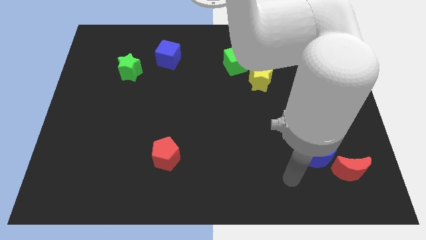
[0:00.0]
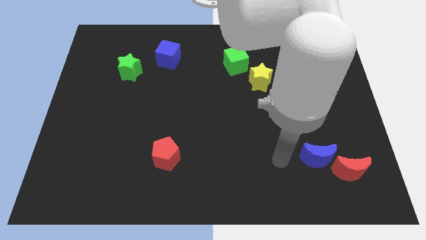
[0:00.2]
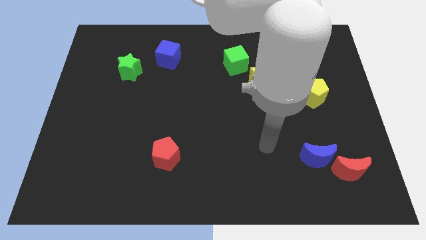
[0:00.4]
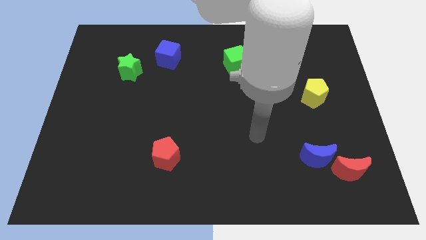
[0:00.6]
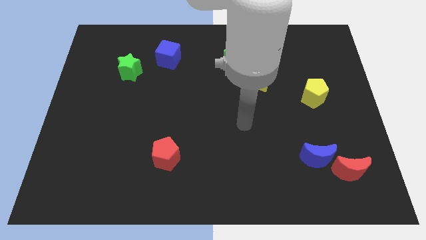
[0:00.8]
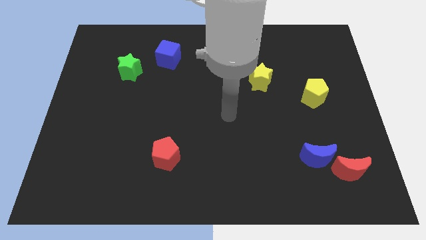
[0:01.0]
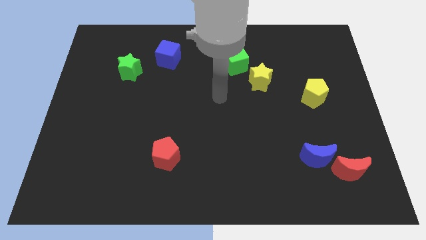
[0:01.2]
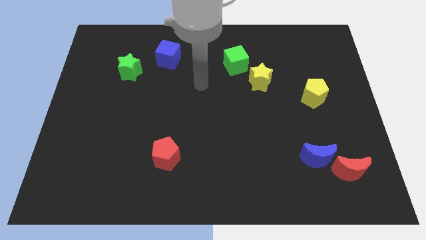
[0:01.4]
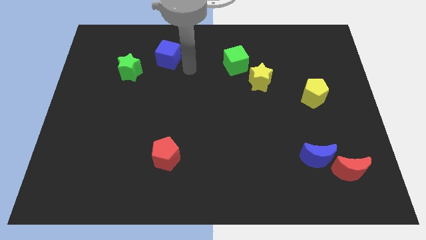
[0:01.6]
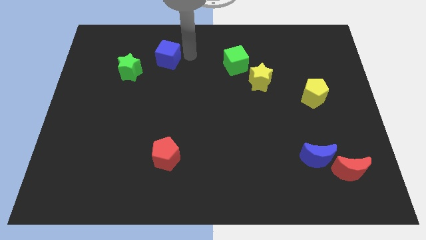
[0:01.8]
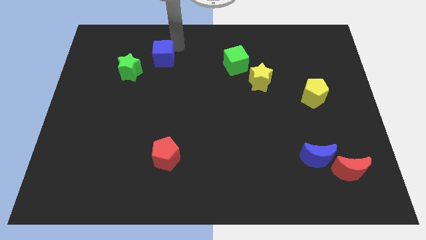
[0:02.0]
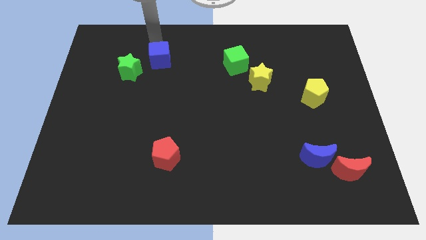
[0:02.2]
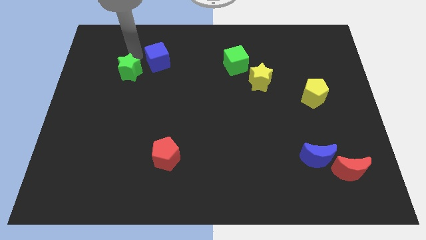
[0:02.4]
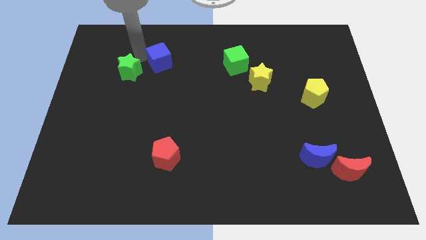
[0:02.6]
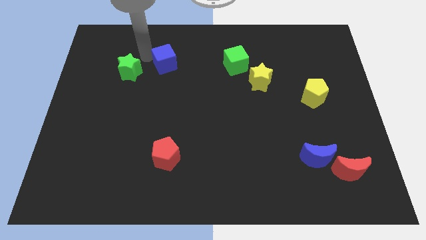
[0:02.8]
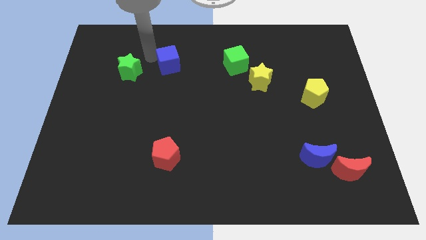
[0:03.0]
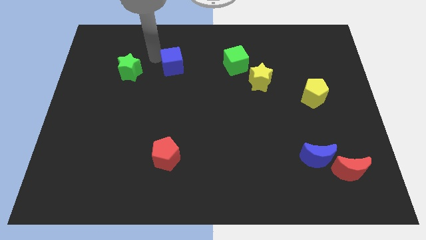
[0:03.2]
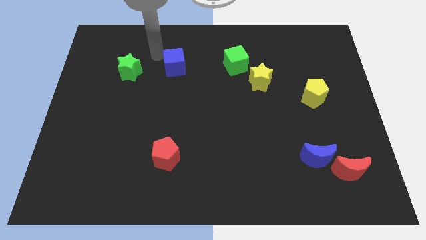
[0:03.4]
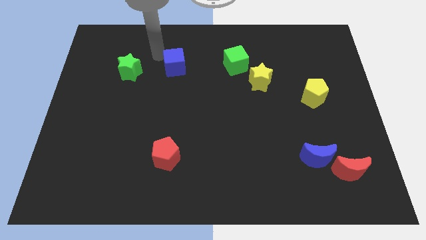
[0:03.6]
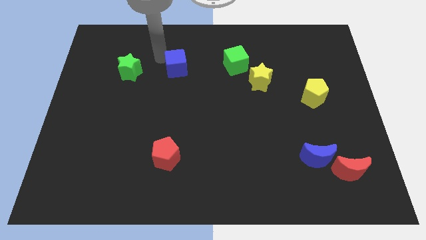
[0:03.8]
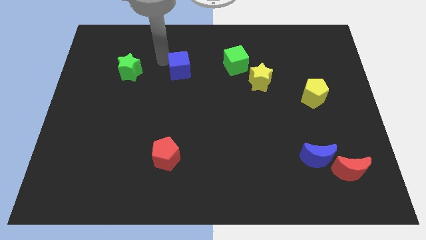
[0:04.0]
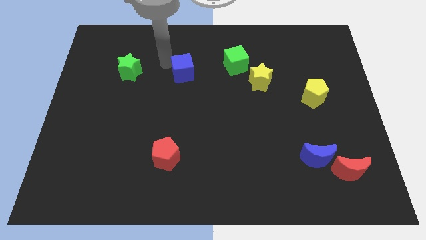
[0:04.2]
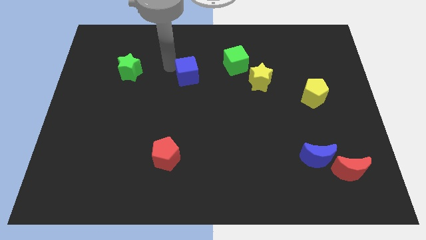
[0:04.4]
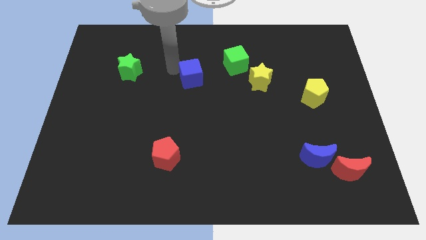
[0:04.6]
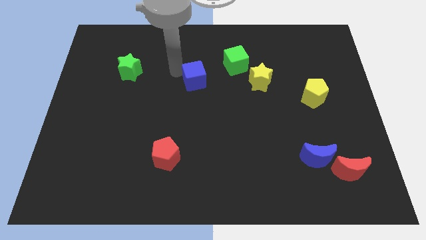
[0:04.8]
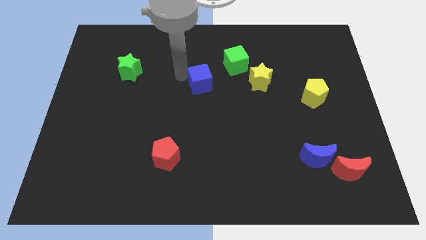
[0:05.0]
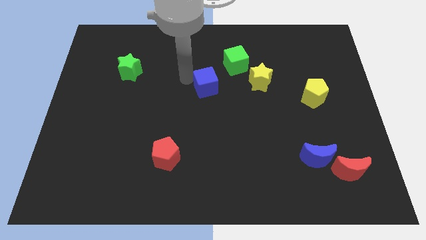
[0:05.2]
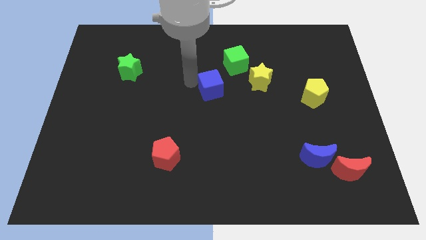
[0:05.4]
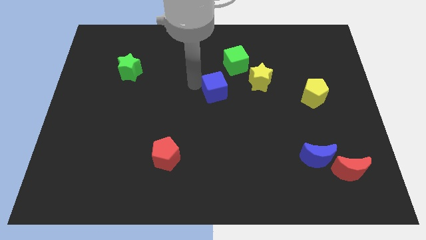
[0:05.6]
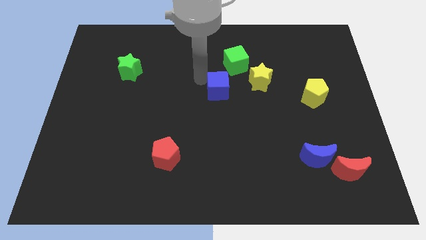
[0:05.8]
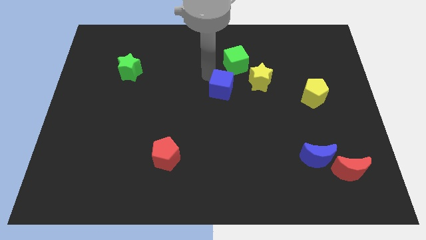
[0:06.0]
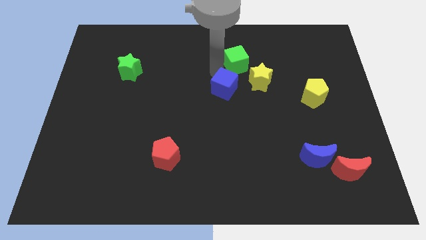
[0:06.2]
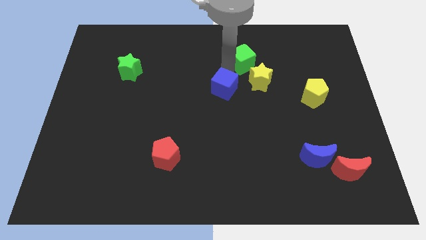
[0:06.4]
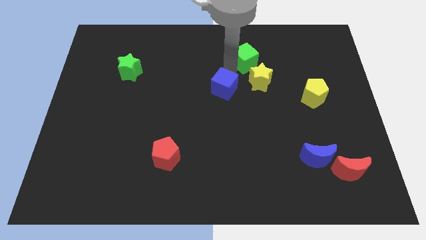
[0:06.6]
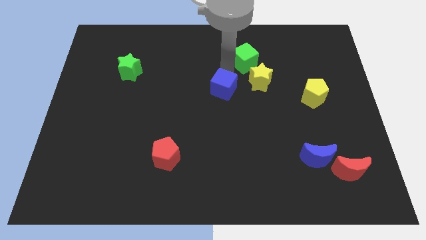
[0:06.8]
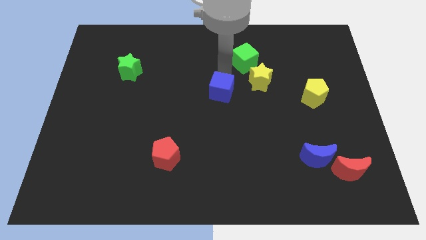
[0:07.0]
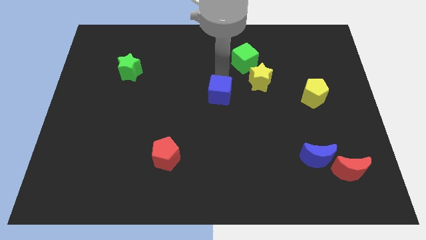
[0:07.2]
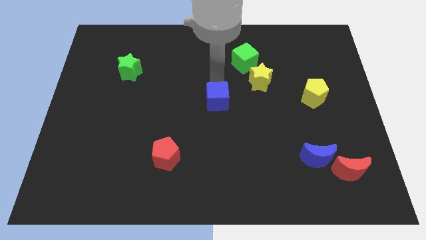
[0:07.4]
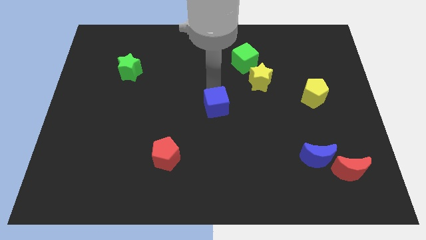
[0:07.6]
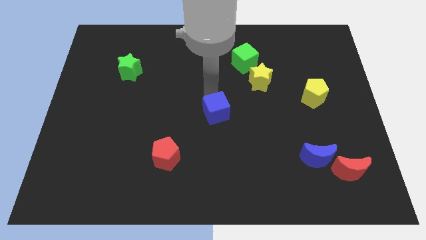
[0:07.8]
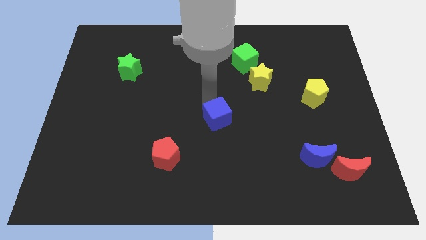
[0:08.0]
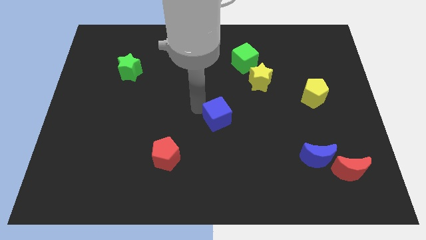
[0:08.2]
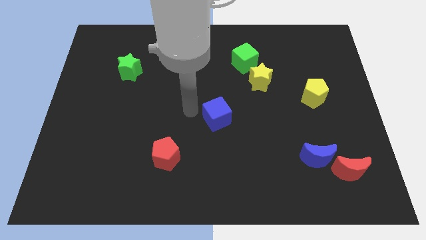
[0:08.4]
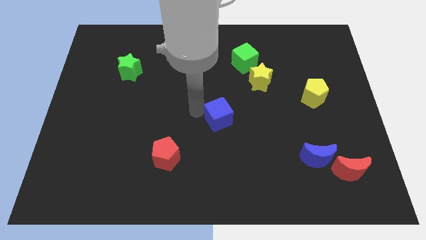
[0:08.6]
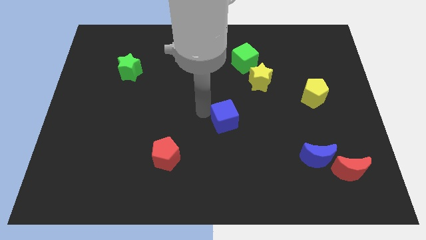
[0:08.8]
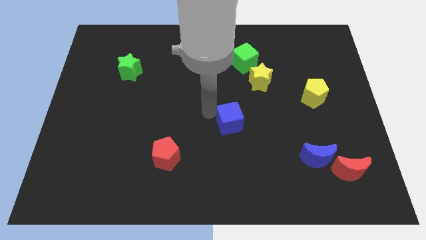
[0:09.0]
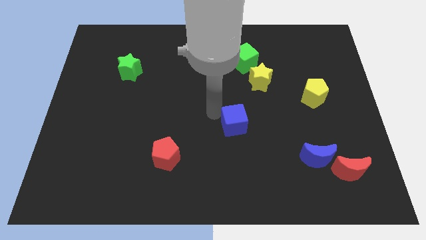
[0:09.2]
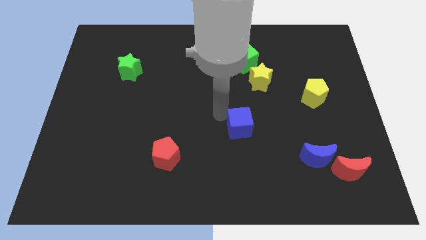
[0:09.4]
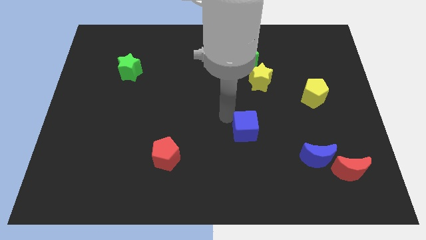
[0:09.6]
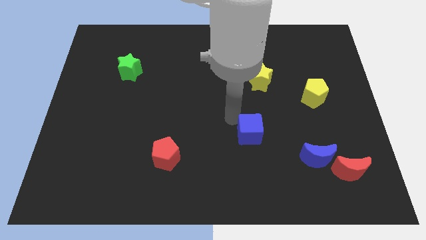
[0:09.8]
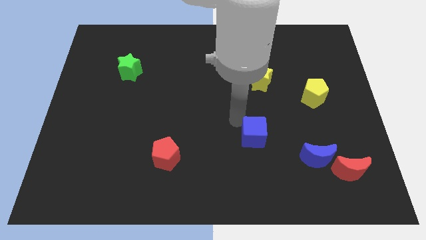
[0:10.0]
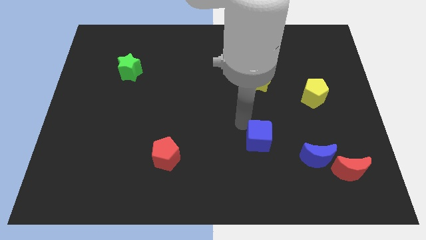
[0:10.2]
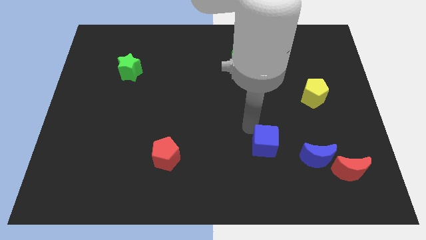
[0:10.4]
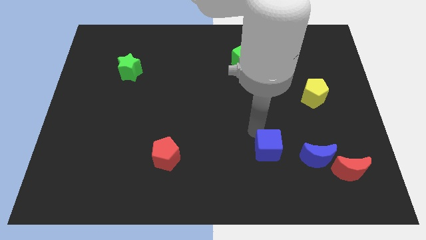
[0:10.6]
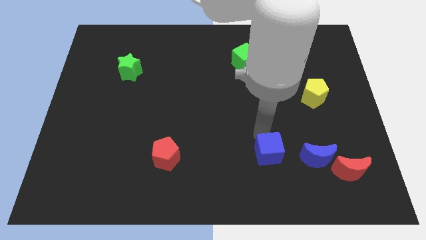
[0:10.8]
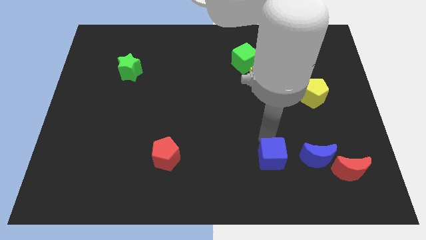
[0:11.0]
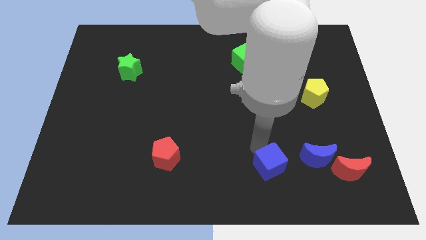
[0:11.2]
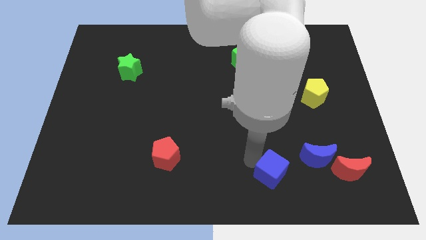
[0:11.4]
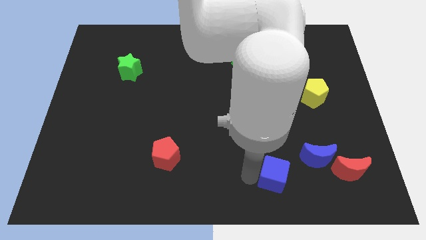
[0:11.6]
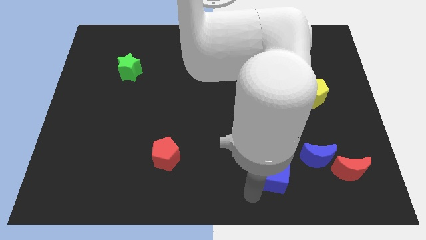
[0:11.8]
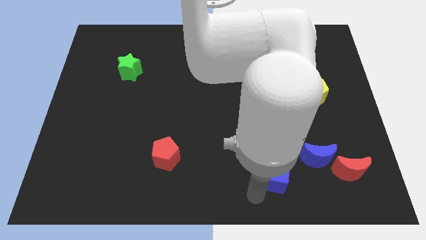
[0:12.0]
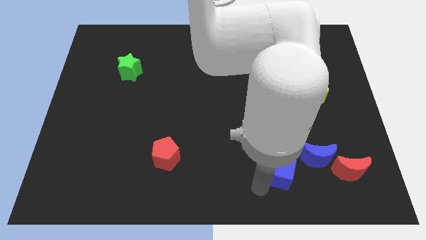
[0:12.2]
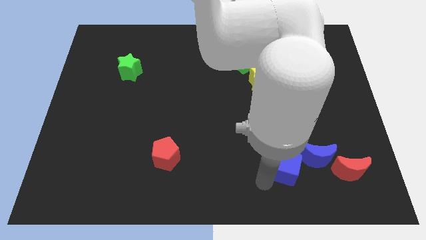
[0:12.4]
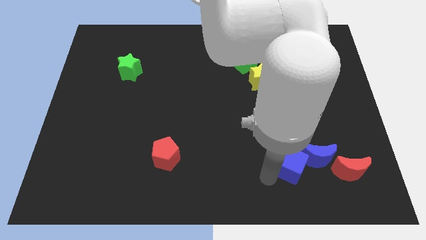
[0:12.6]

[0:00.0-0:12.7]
put the blue cube to the blue moon

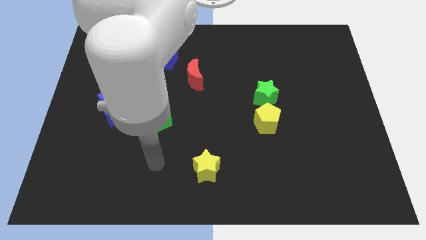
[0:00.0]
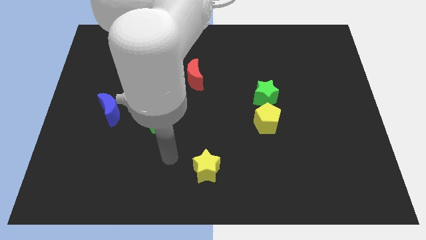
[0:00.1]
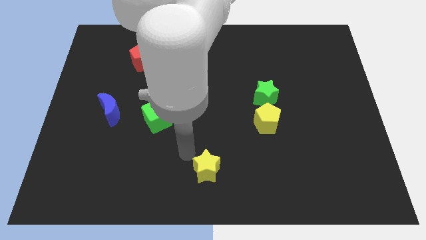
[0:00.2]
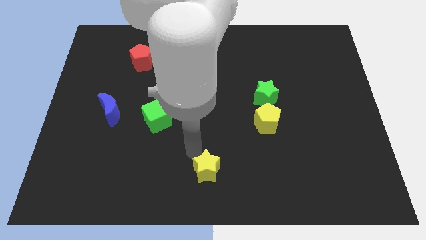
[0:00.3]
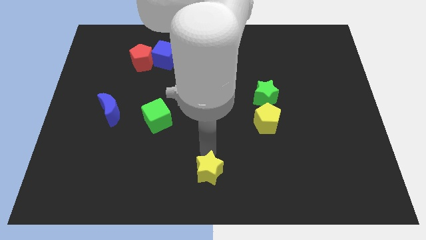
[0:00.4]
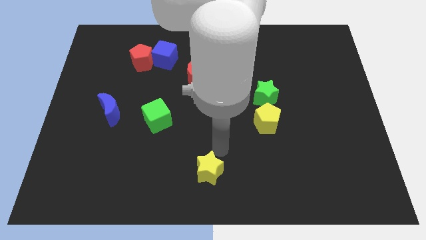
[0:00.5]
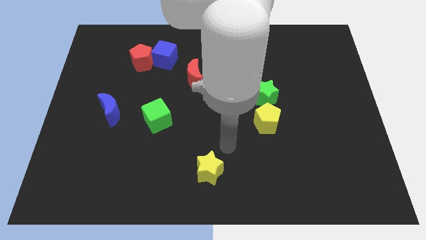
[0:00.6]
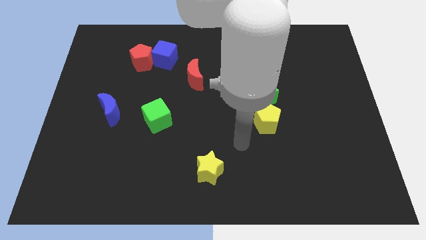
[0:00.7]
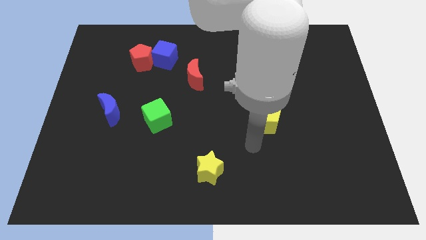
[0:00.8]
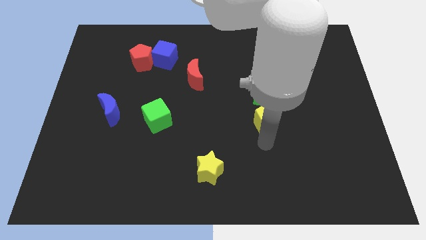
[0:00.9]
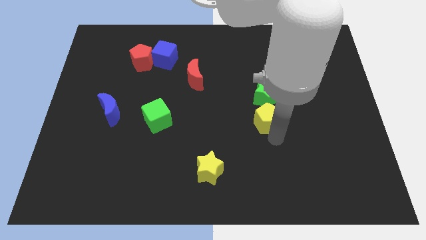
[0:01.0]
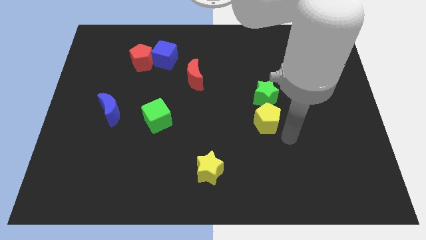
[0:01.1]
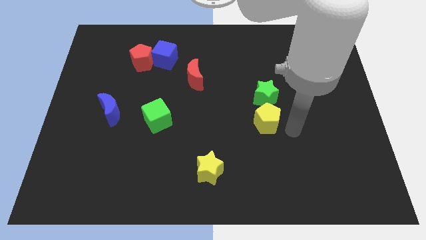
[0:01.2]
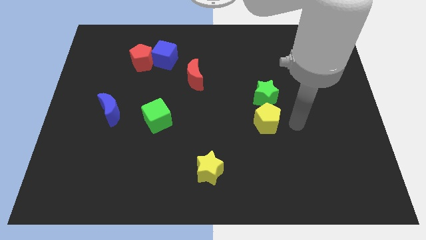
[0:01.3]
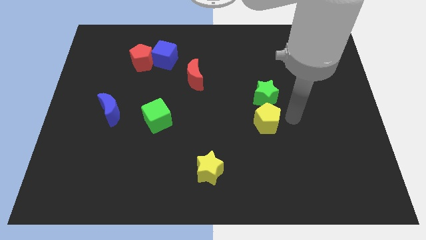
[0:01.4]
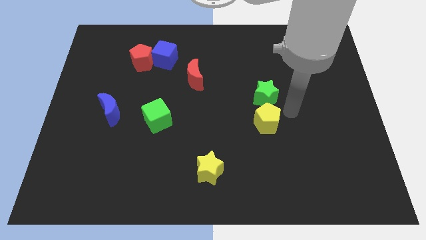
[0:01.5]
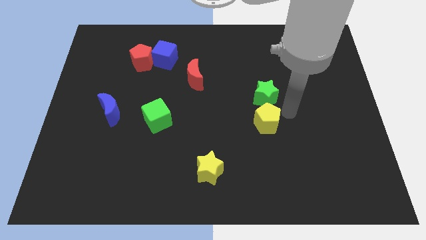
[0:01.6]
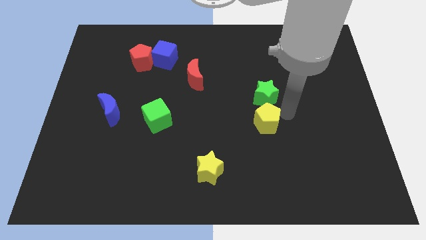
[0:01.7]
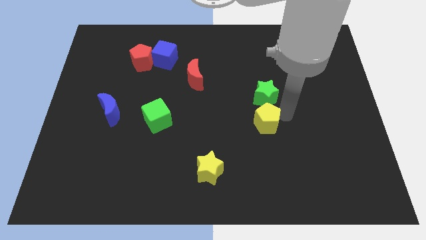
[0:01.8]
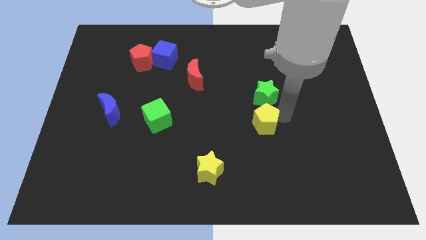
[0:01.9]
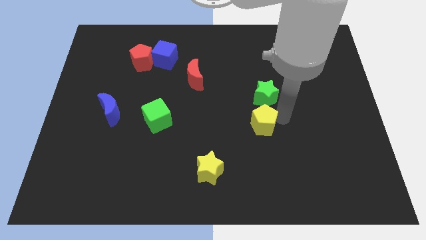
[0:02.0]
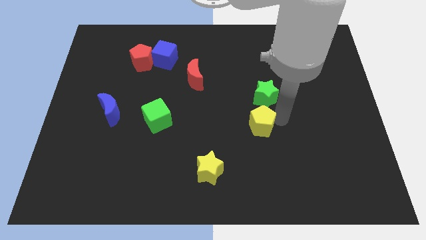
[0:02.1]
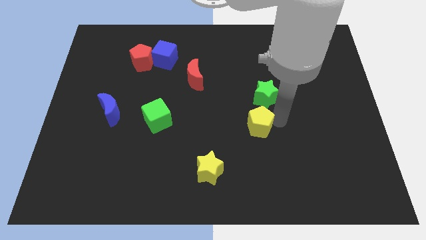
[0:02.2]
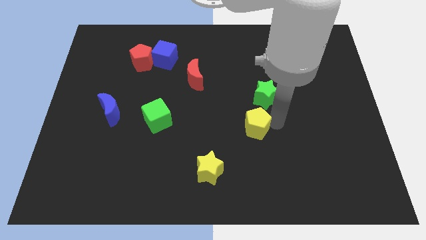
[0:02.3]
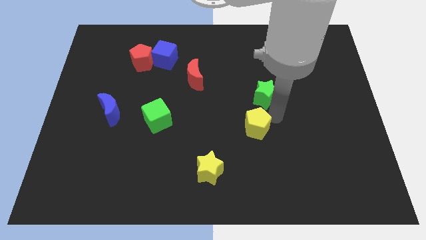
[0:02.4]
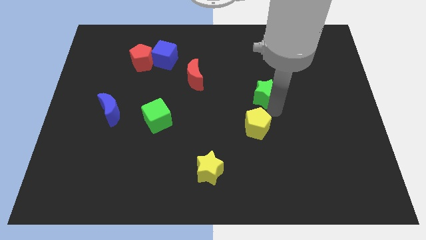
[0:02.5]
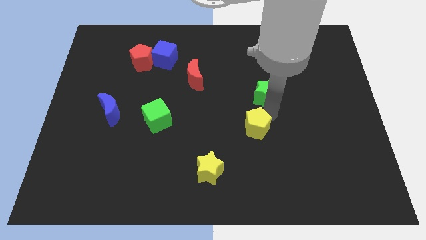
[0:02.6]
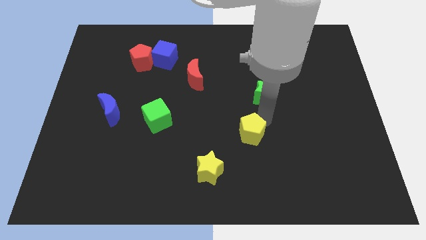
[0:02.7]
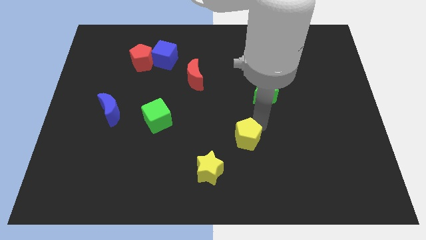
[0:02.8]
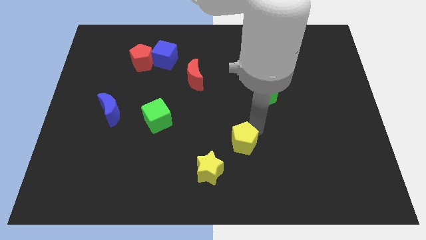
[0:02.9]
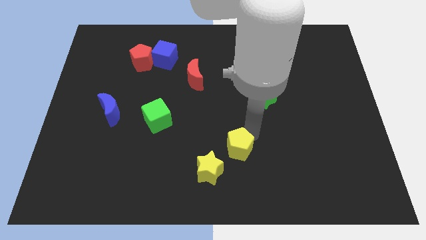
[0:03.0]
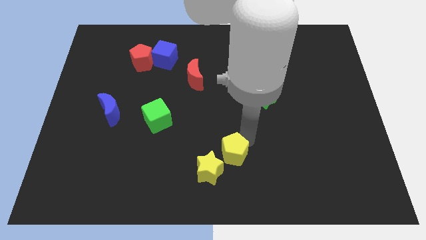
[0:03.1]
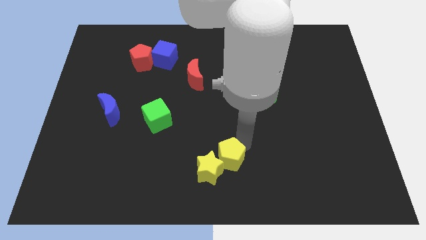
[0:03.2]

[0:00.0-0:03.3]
slide the yellow pentagon close to the yellow star
